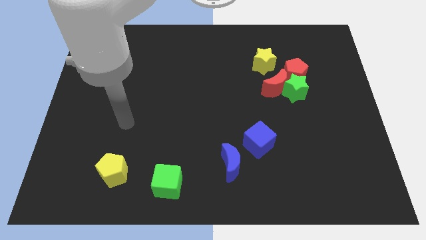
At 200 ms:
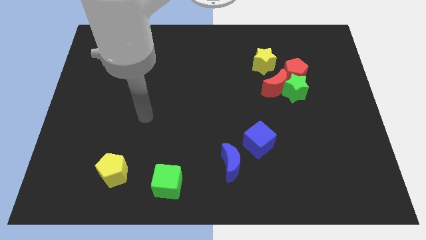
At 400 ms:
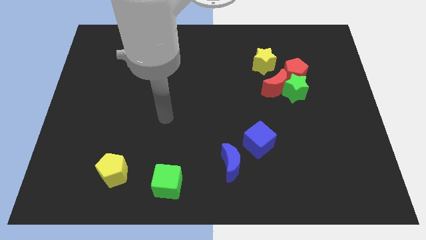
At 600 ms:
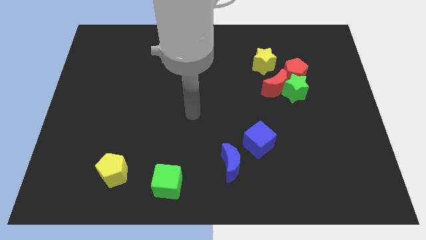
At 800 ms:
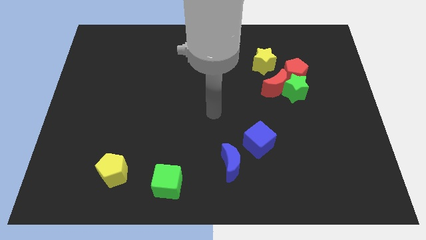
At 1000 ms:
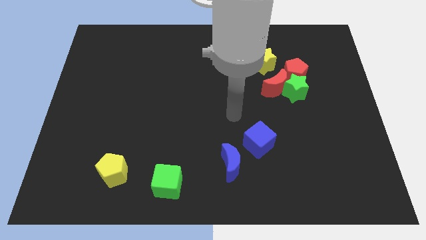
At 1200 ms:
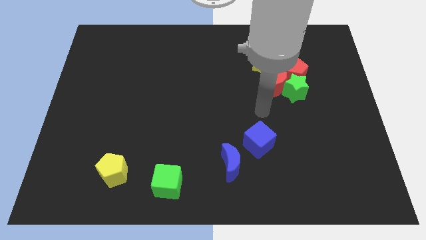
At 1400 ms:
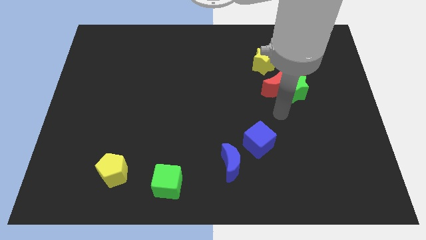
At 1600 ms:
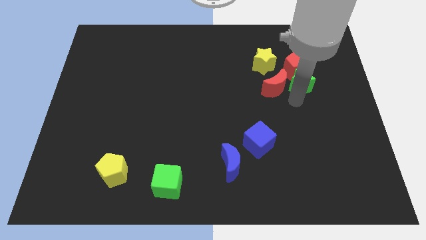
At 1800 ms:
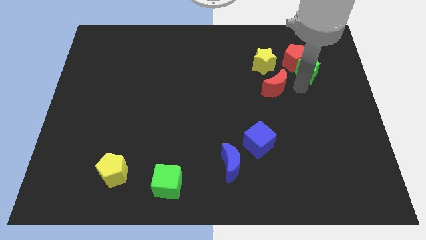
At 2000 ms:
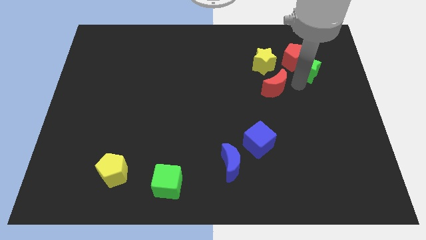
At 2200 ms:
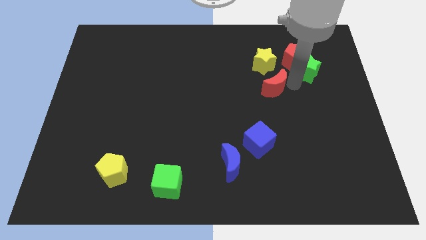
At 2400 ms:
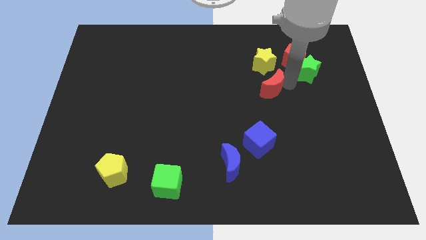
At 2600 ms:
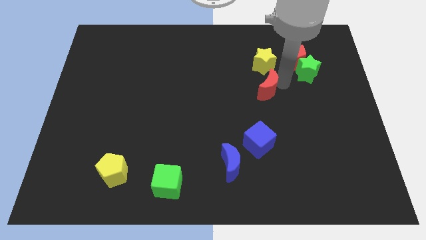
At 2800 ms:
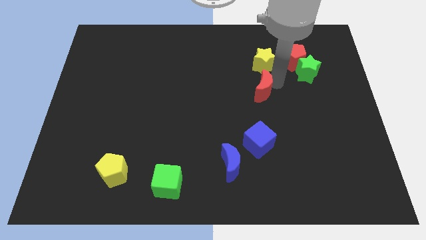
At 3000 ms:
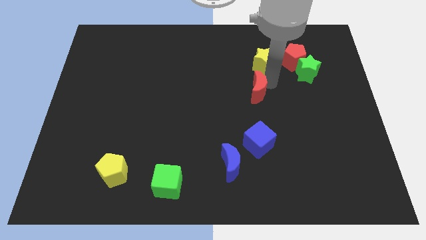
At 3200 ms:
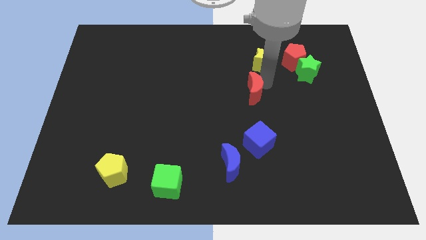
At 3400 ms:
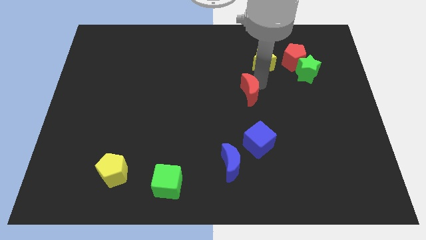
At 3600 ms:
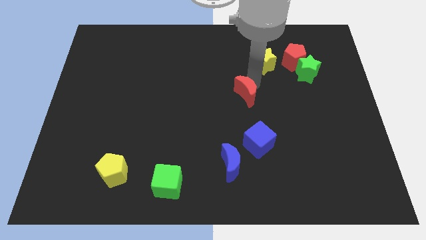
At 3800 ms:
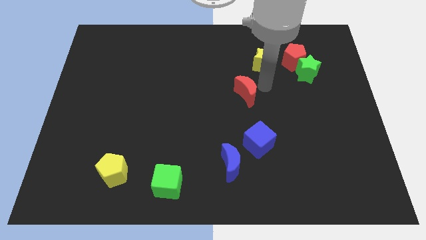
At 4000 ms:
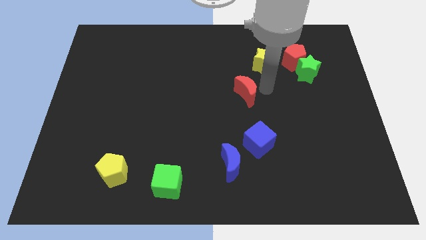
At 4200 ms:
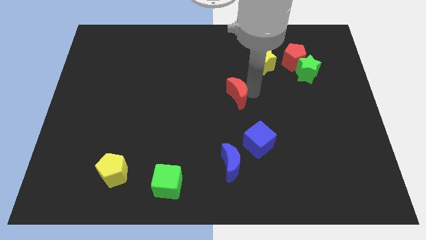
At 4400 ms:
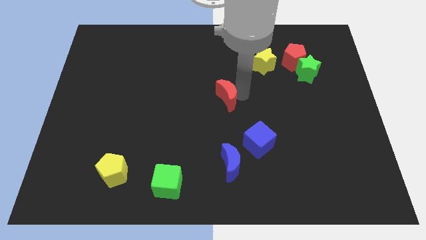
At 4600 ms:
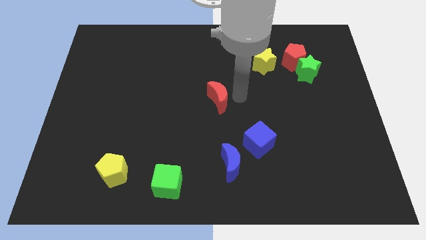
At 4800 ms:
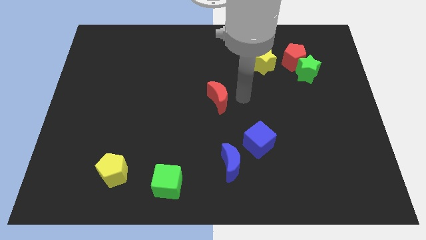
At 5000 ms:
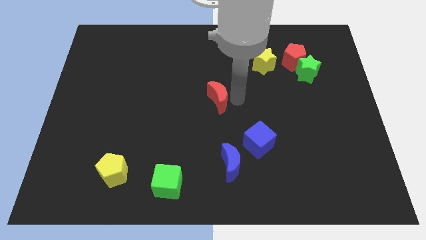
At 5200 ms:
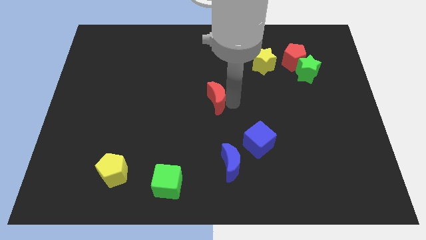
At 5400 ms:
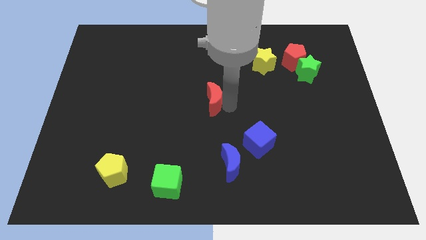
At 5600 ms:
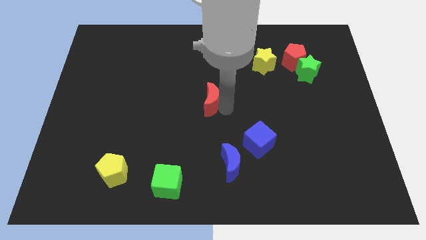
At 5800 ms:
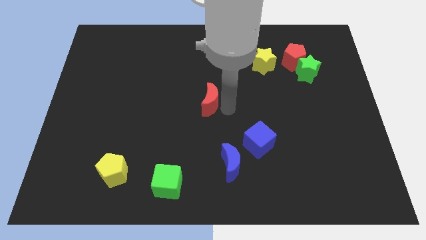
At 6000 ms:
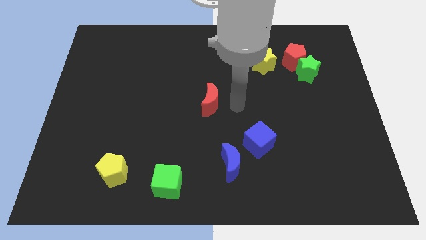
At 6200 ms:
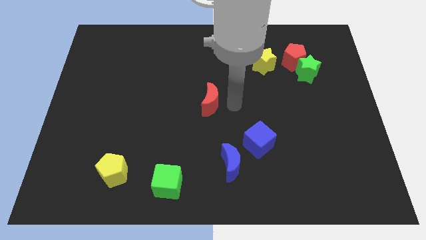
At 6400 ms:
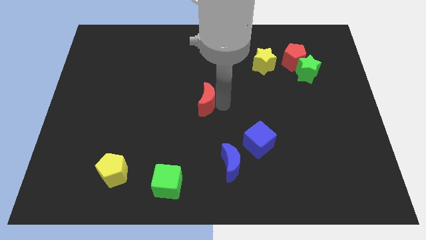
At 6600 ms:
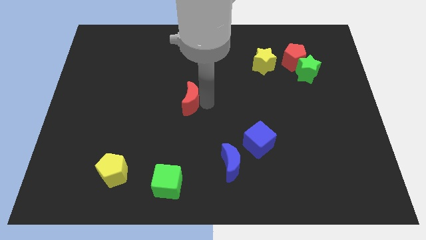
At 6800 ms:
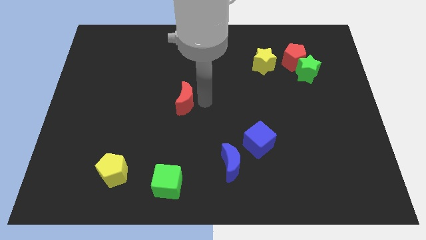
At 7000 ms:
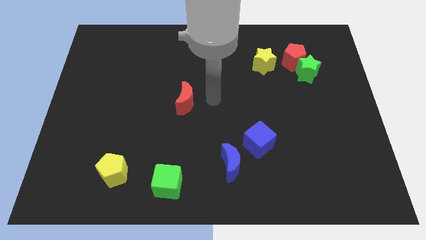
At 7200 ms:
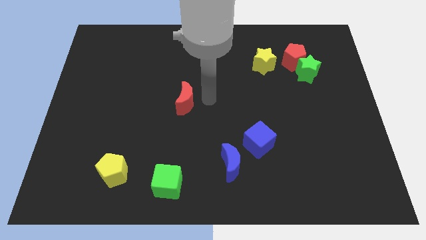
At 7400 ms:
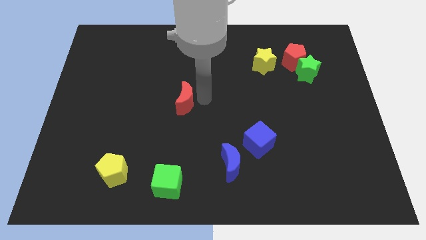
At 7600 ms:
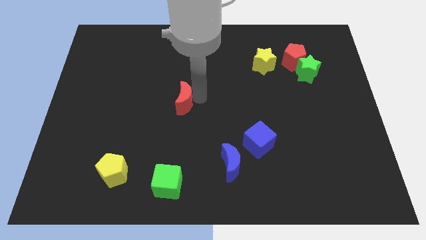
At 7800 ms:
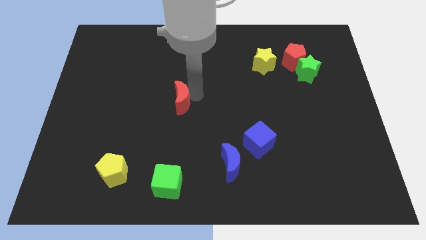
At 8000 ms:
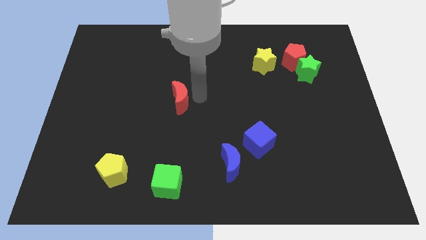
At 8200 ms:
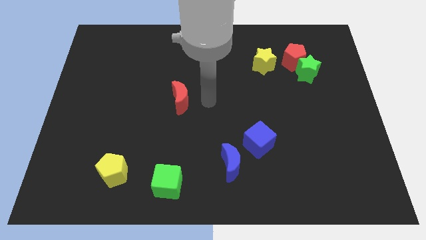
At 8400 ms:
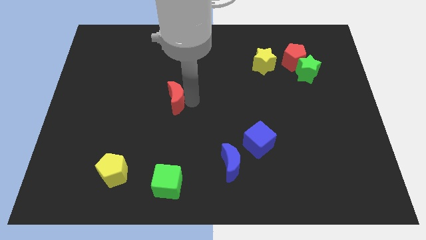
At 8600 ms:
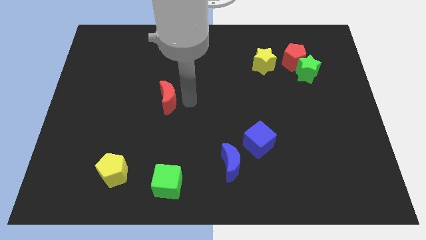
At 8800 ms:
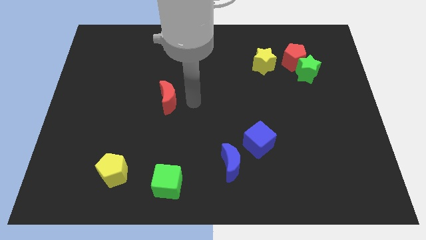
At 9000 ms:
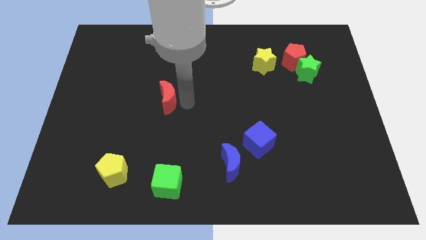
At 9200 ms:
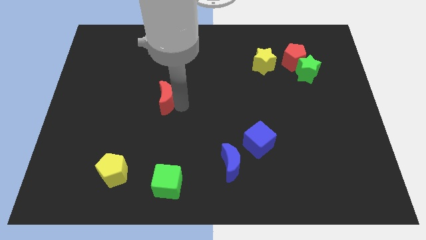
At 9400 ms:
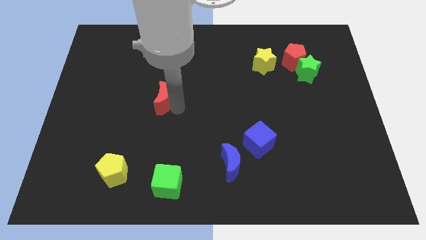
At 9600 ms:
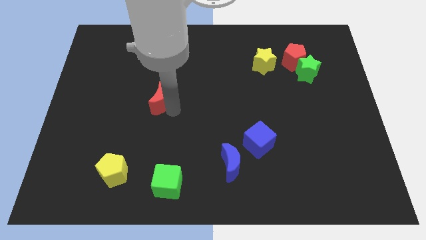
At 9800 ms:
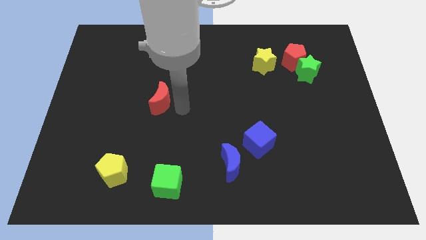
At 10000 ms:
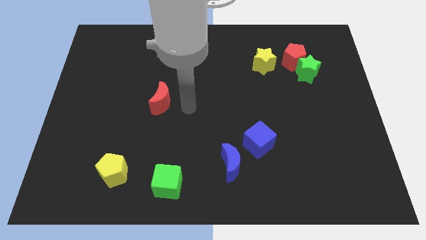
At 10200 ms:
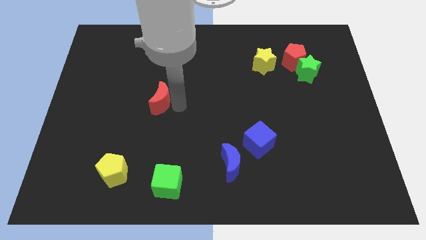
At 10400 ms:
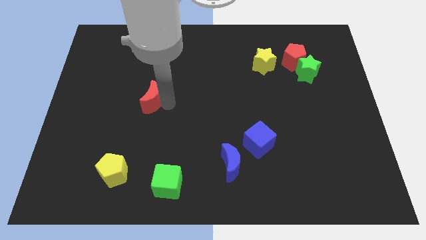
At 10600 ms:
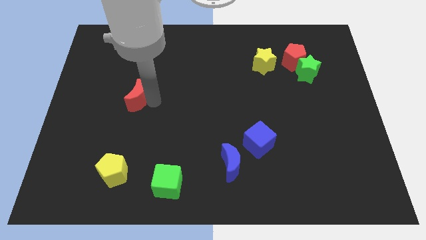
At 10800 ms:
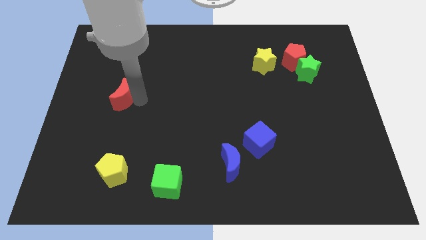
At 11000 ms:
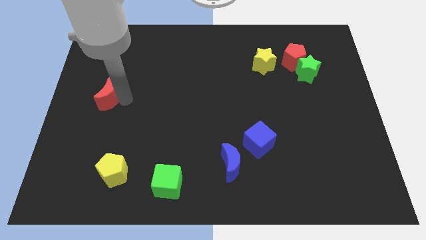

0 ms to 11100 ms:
slide the red moon to the center left

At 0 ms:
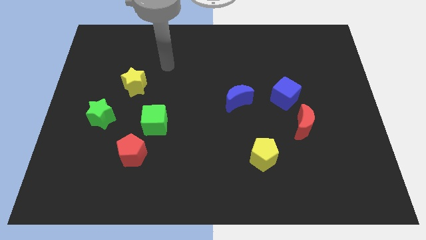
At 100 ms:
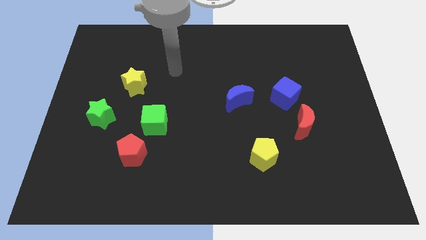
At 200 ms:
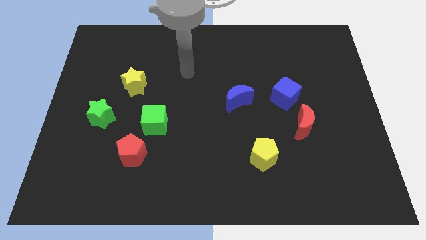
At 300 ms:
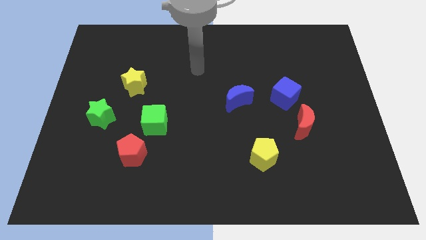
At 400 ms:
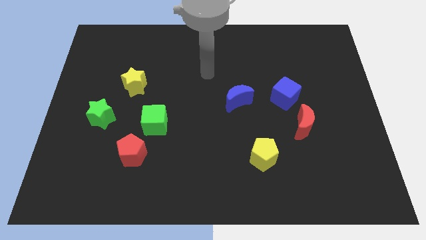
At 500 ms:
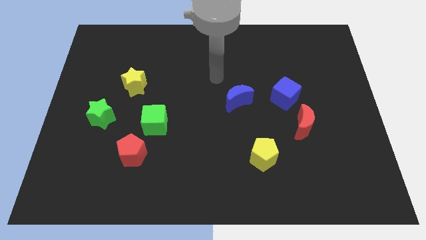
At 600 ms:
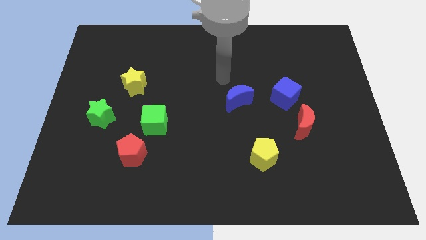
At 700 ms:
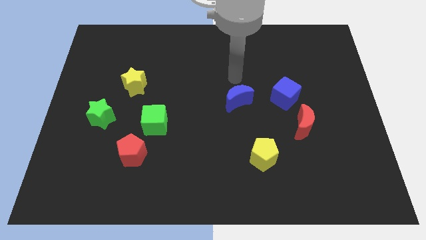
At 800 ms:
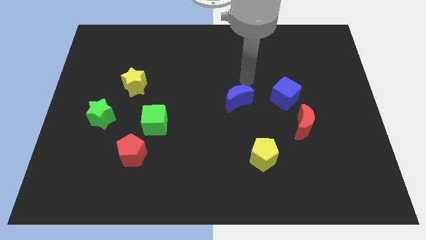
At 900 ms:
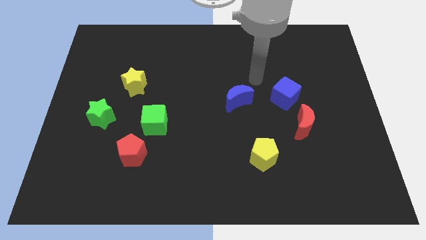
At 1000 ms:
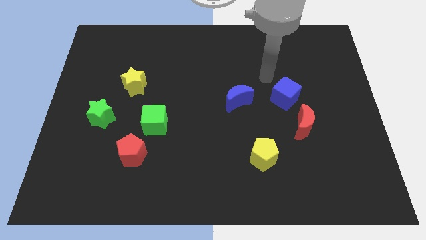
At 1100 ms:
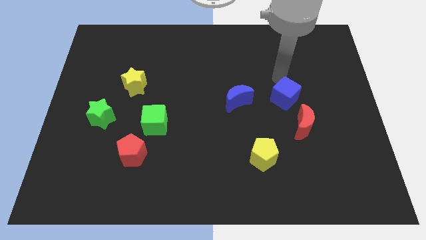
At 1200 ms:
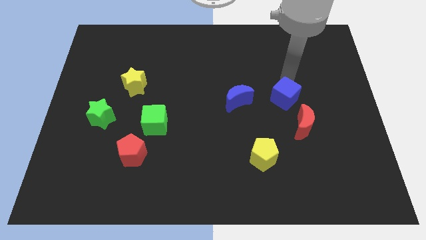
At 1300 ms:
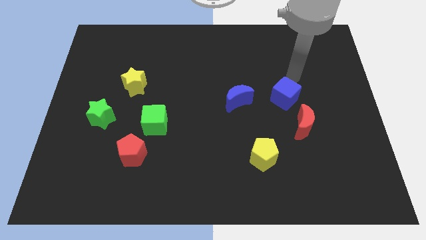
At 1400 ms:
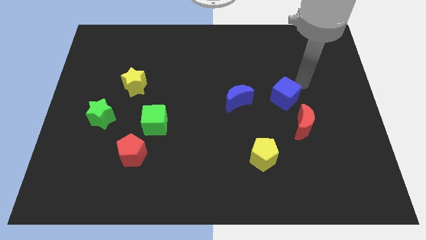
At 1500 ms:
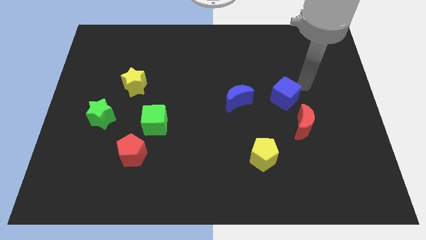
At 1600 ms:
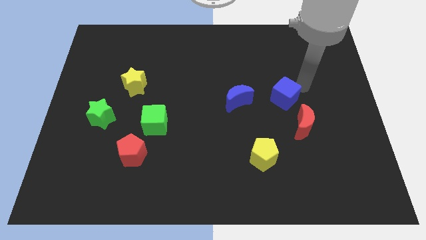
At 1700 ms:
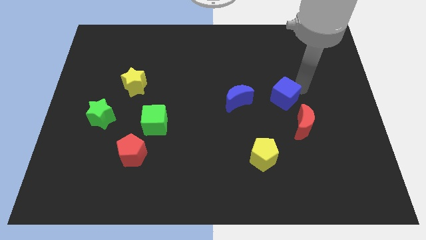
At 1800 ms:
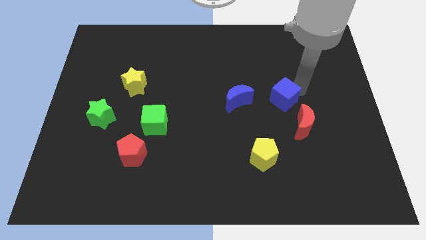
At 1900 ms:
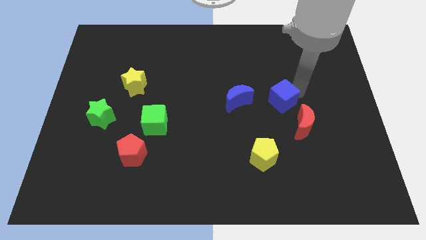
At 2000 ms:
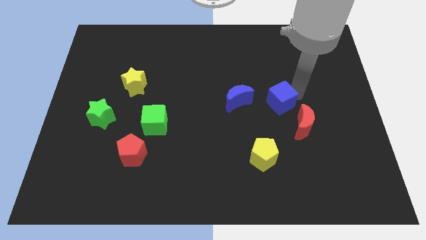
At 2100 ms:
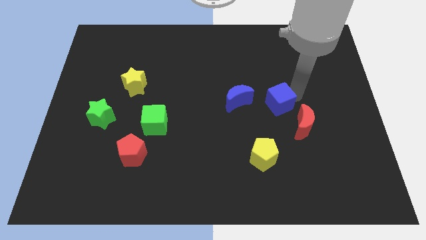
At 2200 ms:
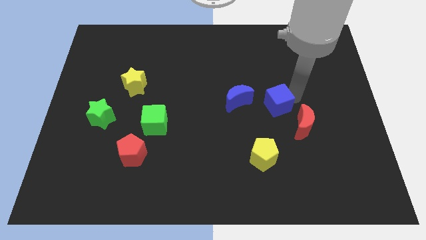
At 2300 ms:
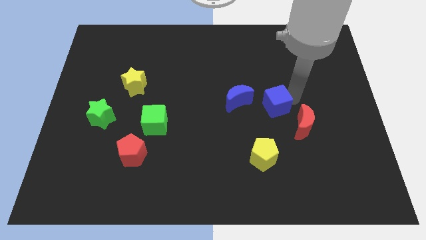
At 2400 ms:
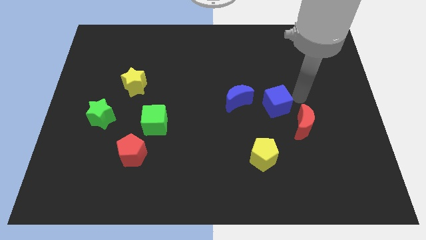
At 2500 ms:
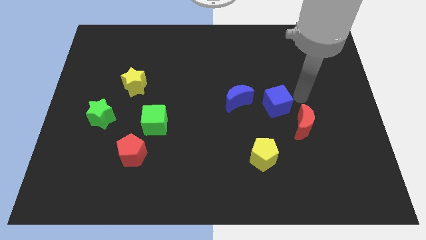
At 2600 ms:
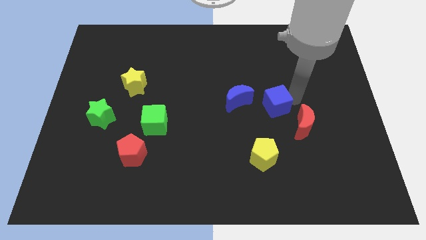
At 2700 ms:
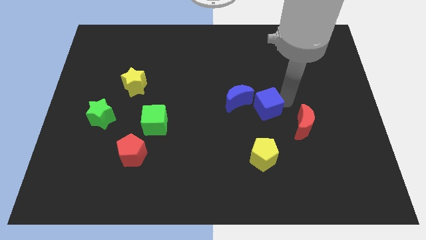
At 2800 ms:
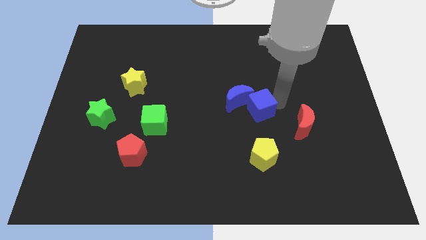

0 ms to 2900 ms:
put the blue cube to the middle of the board
